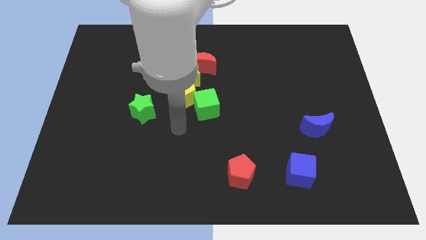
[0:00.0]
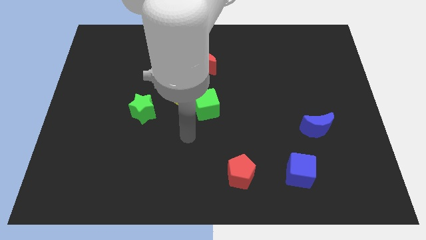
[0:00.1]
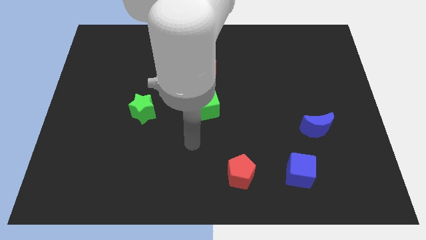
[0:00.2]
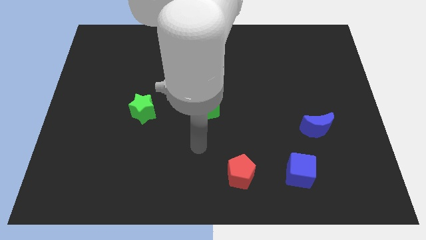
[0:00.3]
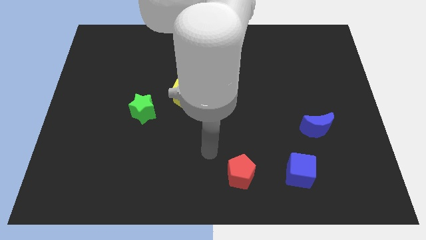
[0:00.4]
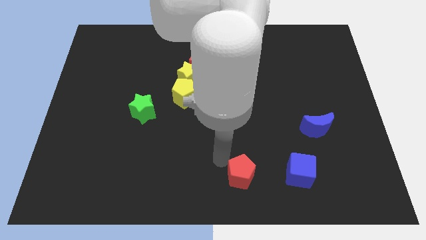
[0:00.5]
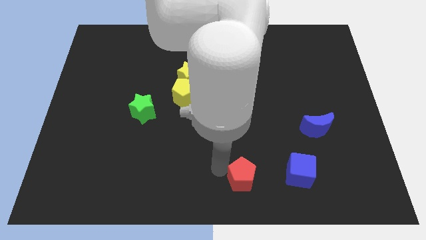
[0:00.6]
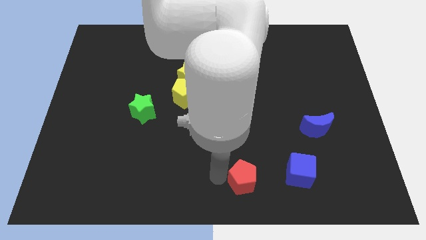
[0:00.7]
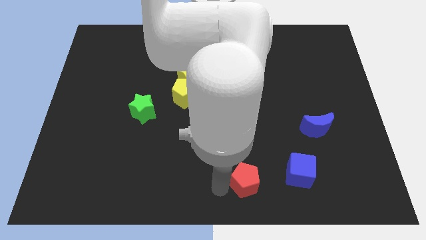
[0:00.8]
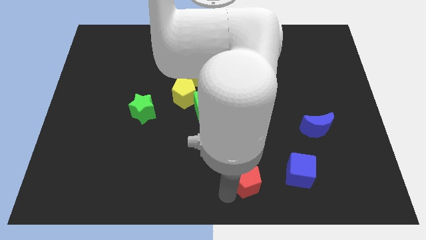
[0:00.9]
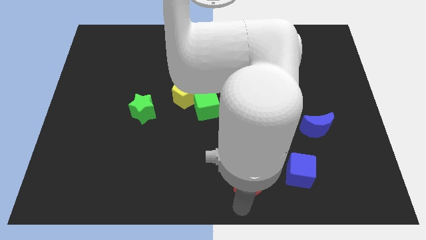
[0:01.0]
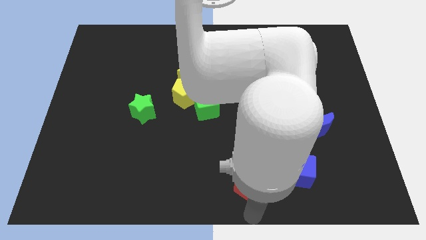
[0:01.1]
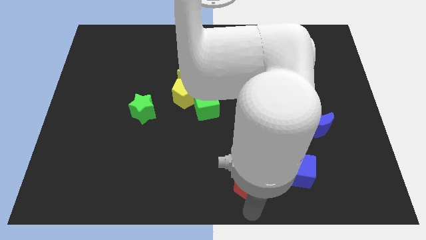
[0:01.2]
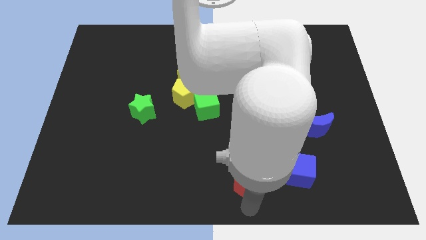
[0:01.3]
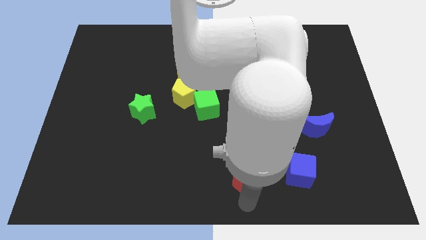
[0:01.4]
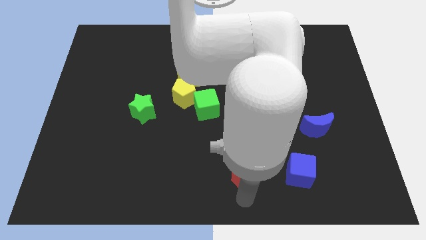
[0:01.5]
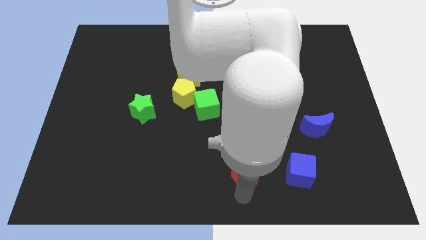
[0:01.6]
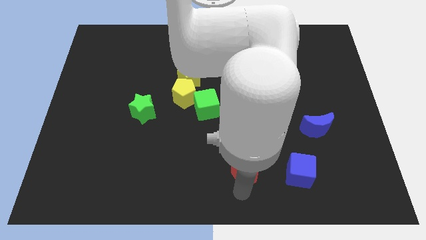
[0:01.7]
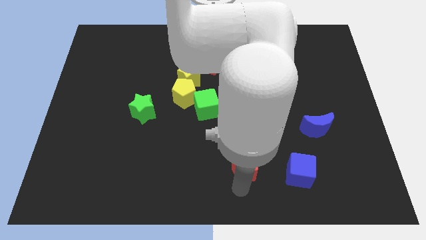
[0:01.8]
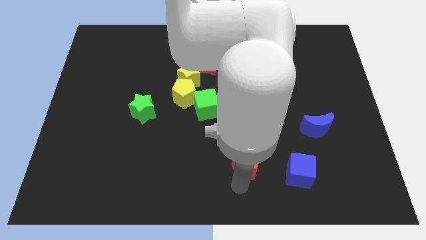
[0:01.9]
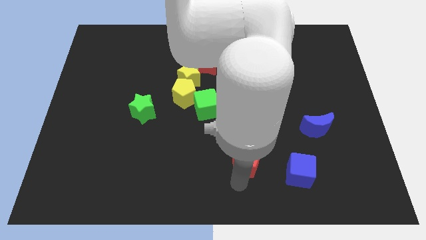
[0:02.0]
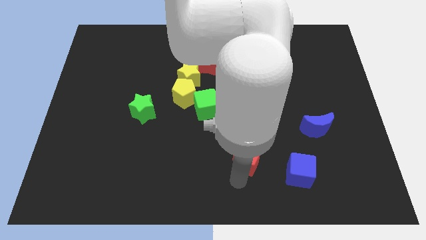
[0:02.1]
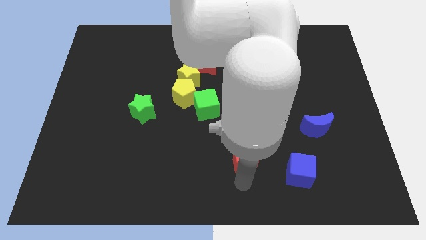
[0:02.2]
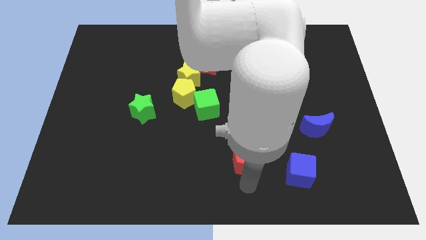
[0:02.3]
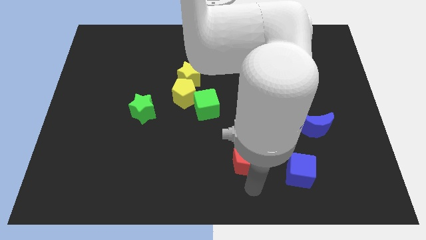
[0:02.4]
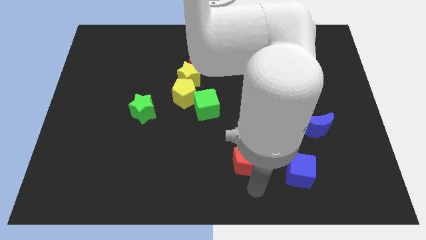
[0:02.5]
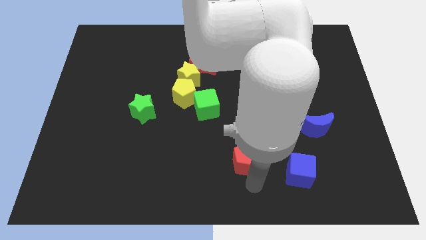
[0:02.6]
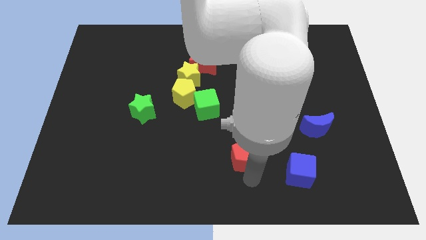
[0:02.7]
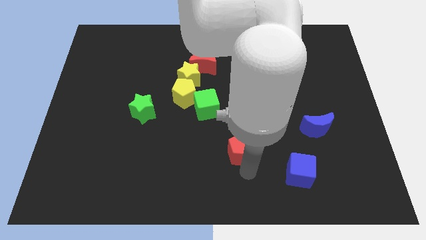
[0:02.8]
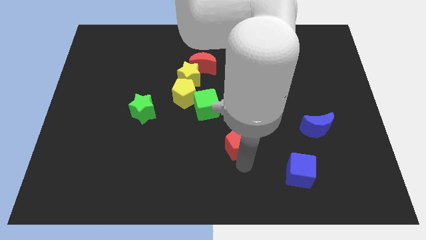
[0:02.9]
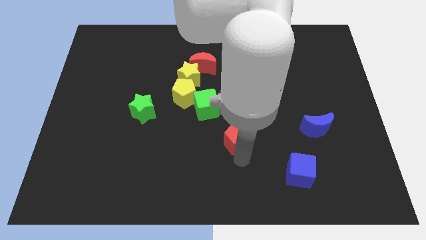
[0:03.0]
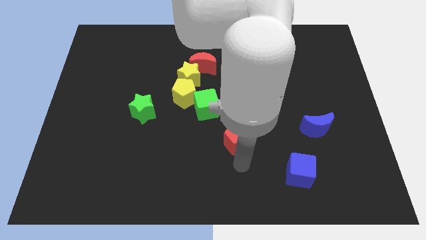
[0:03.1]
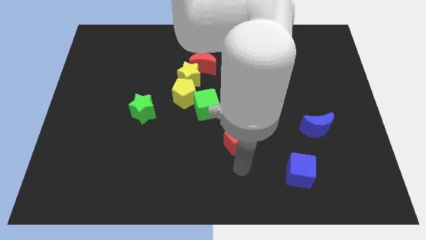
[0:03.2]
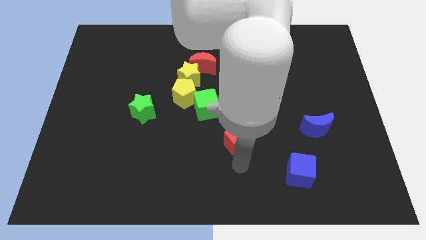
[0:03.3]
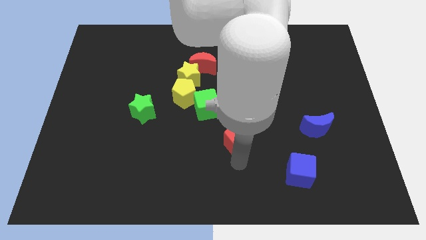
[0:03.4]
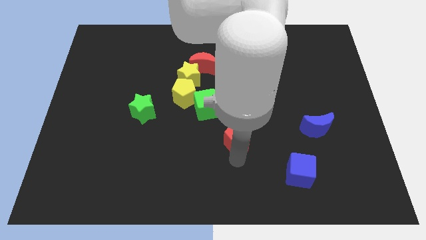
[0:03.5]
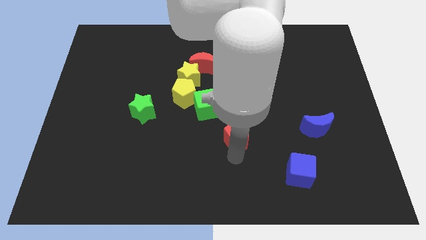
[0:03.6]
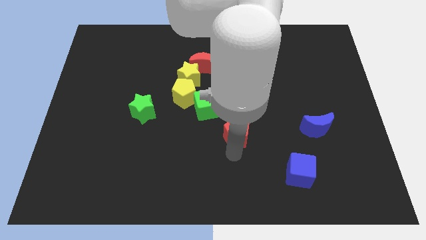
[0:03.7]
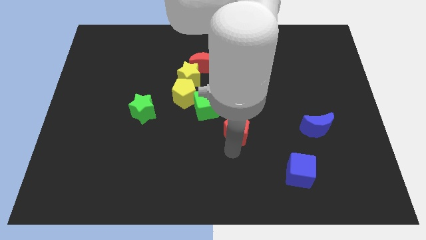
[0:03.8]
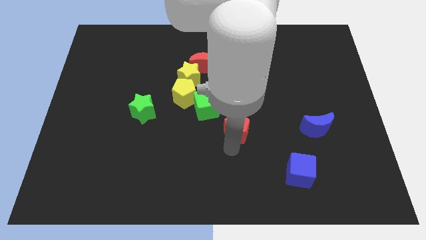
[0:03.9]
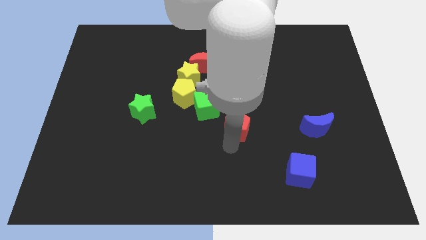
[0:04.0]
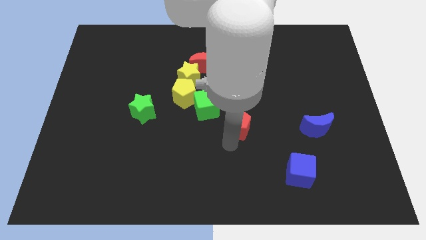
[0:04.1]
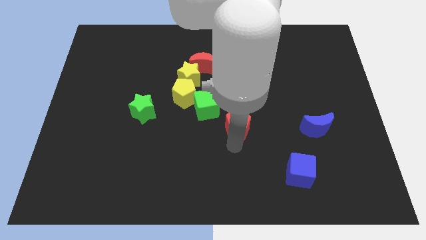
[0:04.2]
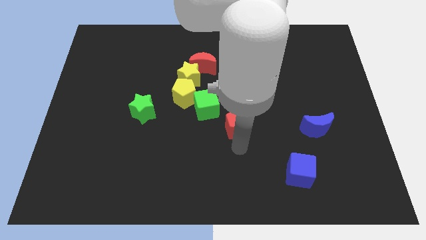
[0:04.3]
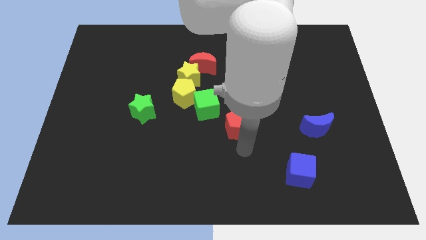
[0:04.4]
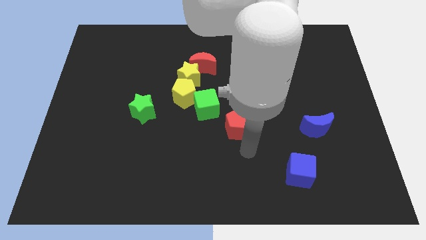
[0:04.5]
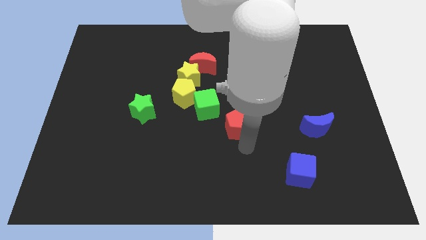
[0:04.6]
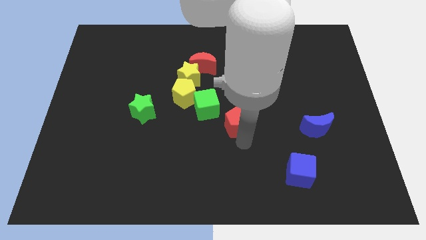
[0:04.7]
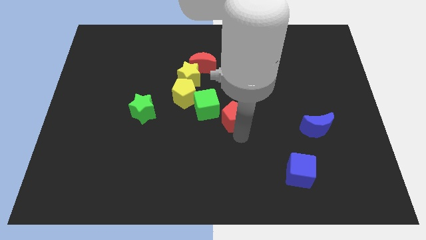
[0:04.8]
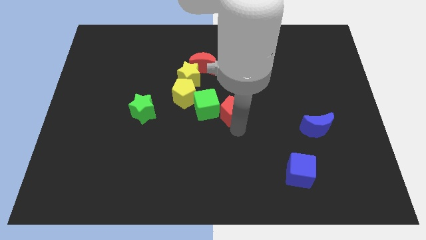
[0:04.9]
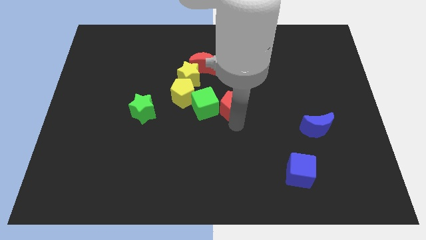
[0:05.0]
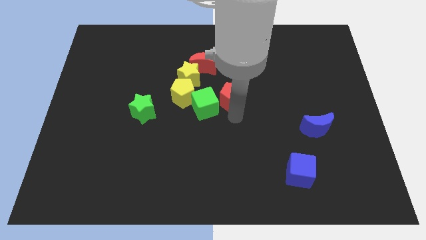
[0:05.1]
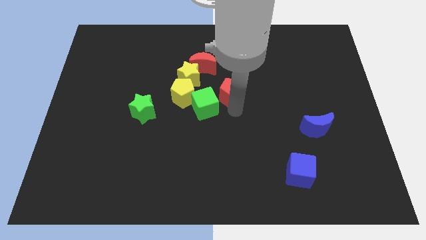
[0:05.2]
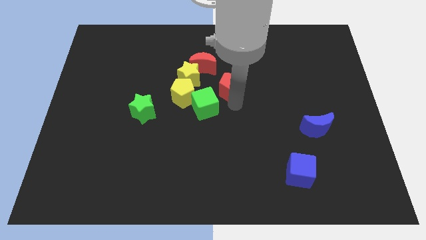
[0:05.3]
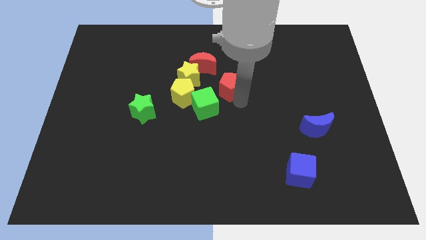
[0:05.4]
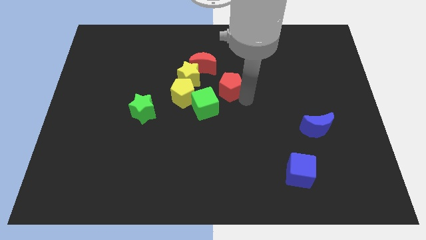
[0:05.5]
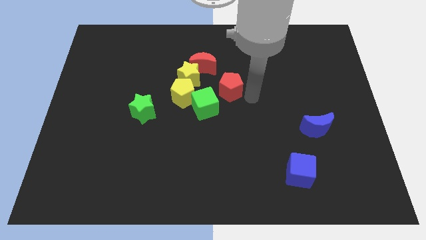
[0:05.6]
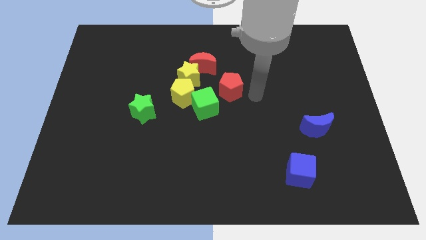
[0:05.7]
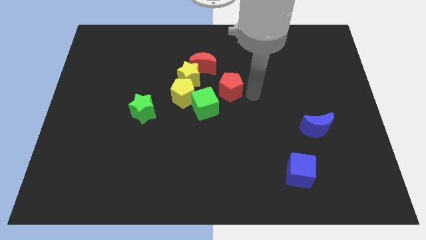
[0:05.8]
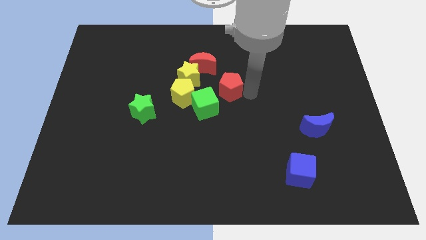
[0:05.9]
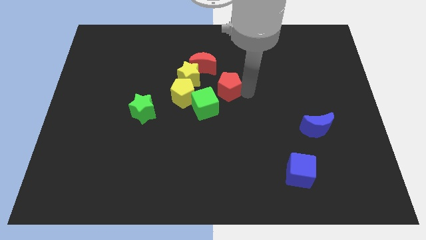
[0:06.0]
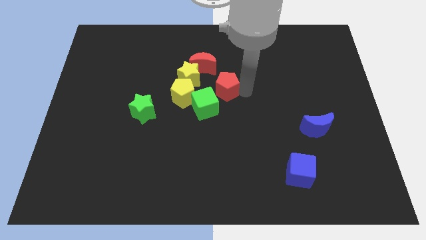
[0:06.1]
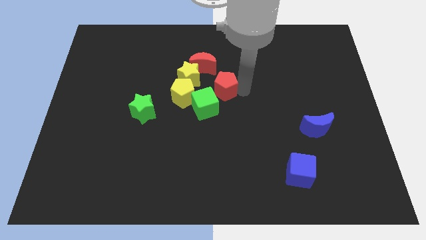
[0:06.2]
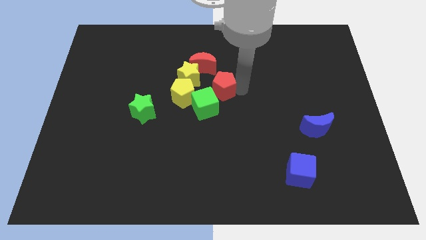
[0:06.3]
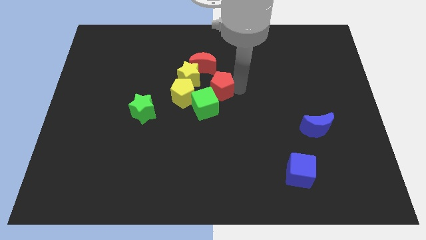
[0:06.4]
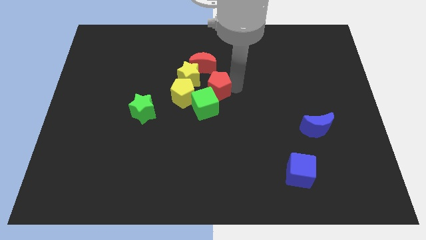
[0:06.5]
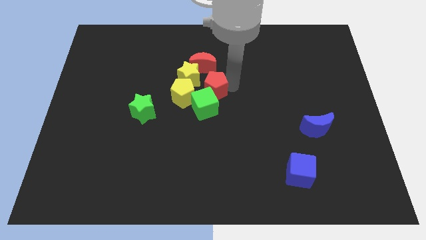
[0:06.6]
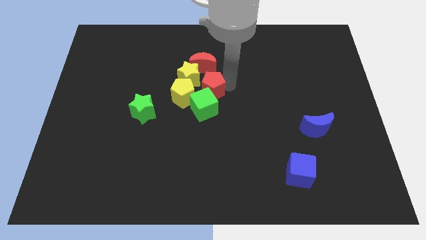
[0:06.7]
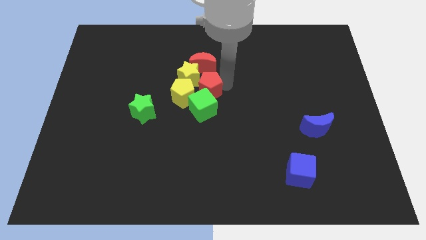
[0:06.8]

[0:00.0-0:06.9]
push the red pentagon towards the yellow star
